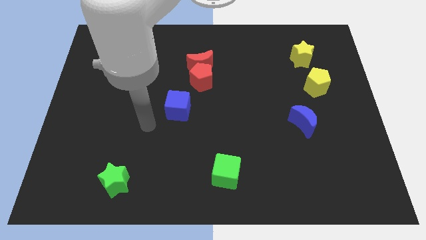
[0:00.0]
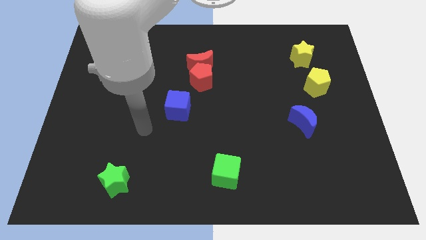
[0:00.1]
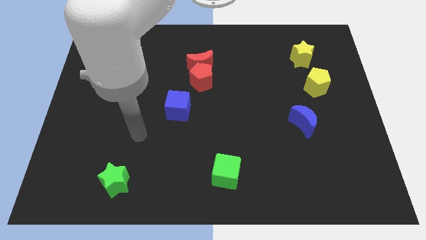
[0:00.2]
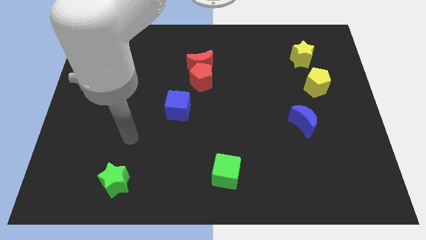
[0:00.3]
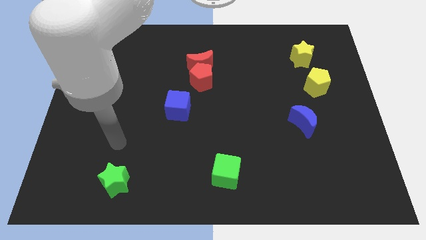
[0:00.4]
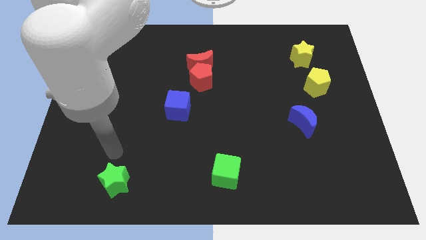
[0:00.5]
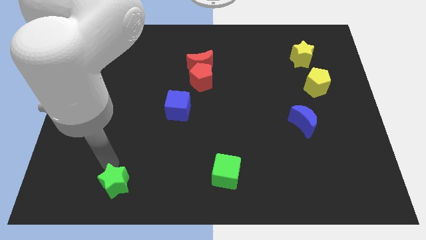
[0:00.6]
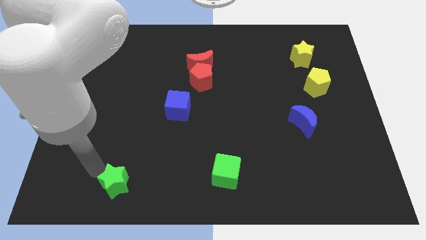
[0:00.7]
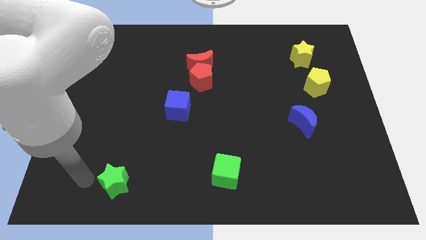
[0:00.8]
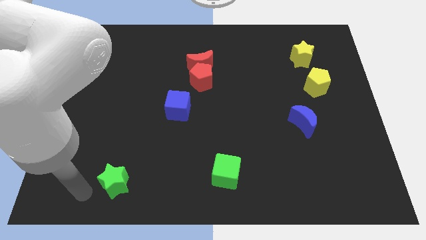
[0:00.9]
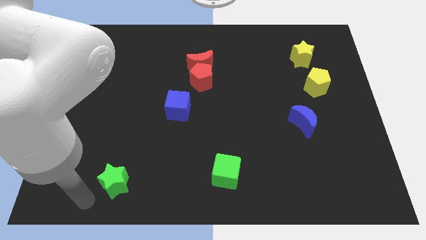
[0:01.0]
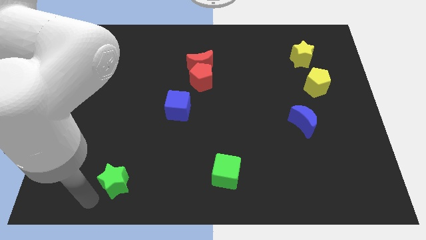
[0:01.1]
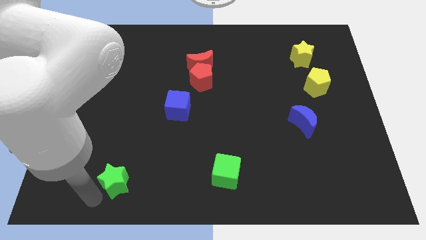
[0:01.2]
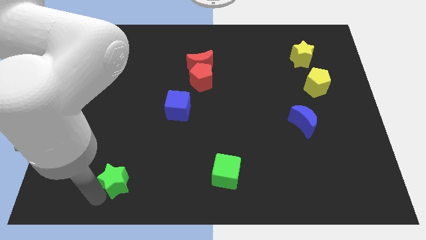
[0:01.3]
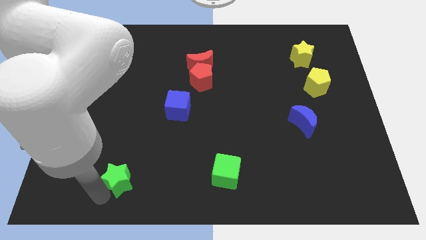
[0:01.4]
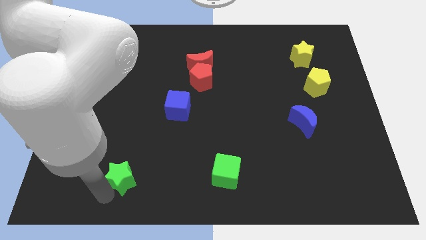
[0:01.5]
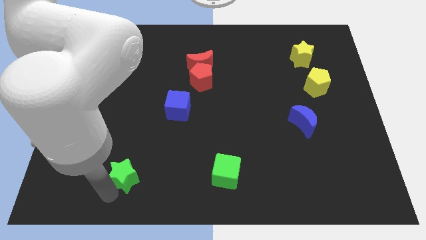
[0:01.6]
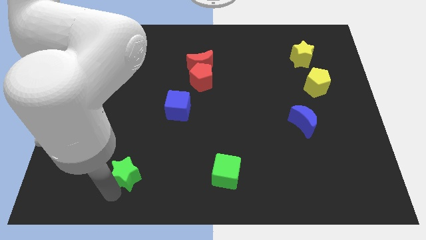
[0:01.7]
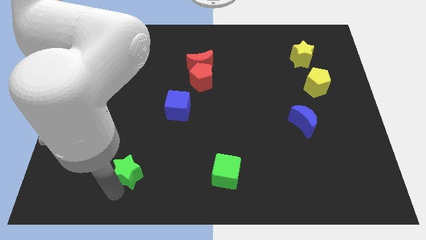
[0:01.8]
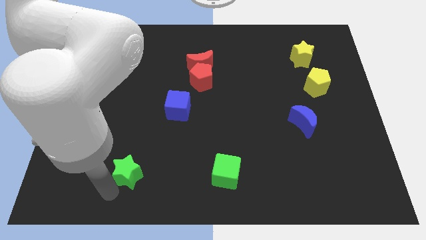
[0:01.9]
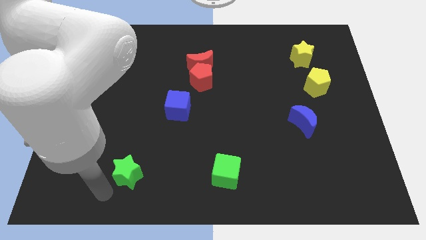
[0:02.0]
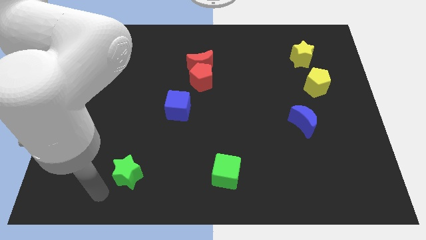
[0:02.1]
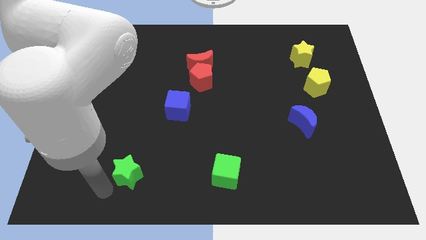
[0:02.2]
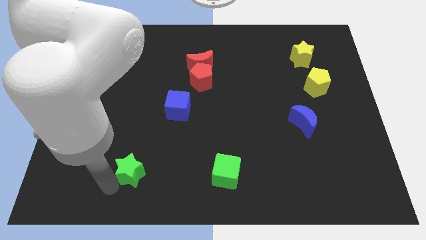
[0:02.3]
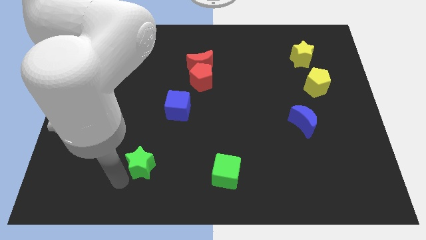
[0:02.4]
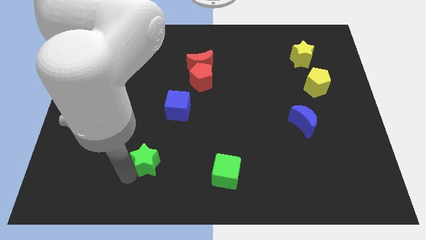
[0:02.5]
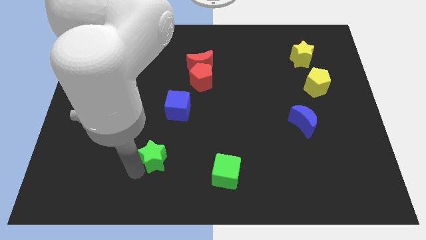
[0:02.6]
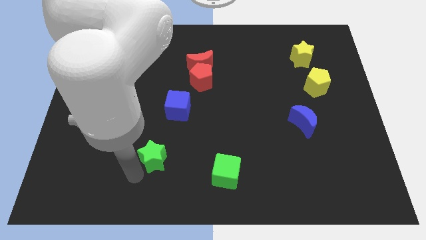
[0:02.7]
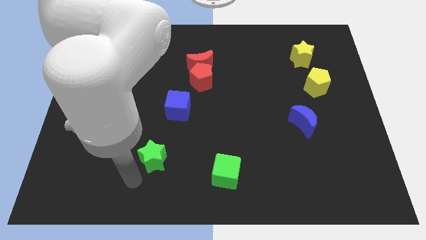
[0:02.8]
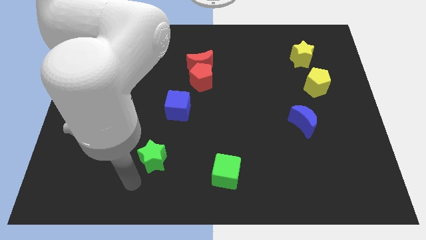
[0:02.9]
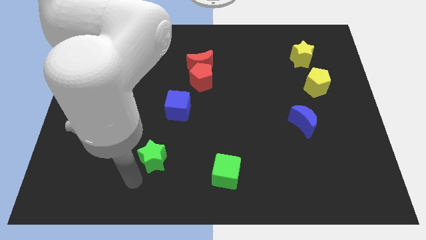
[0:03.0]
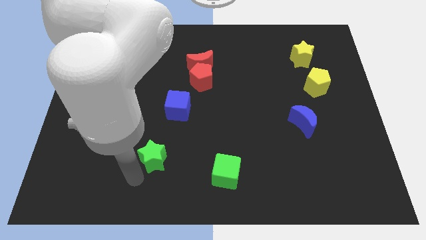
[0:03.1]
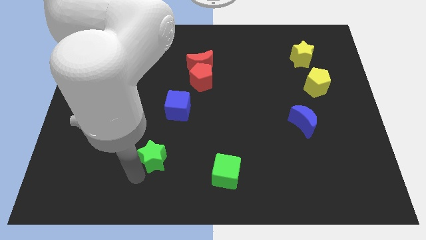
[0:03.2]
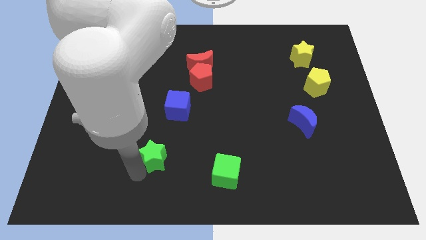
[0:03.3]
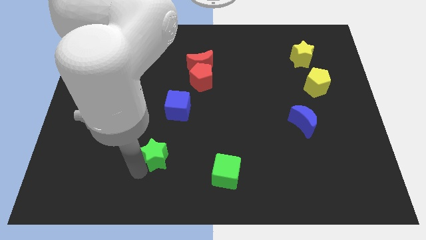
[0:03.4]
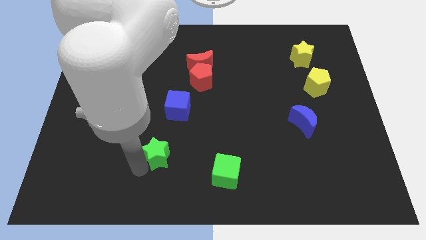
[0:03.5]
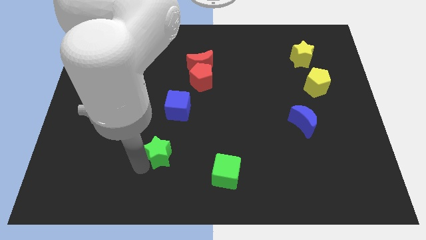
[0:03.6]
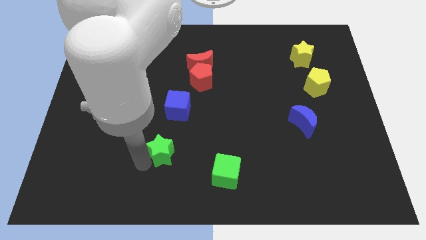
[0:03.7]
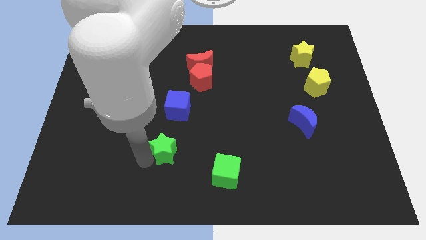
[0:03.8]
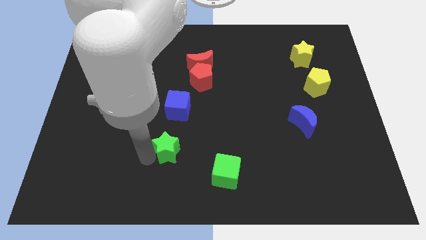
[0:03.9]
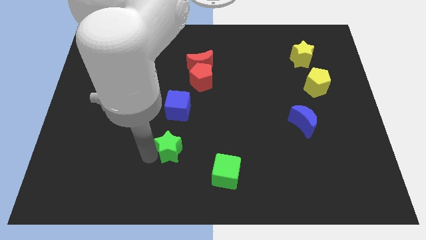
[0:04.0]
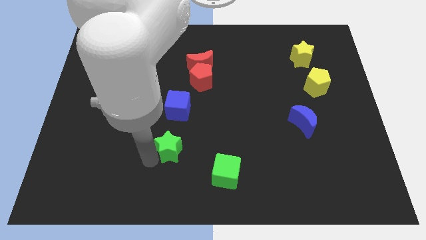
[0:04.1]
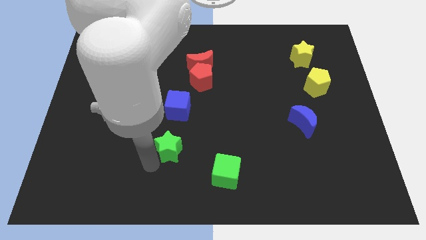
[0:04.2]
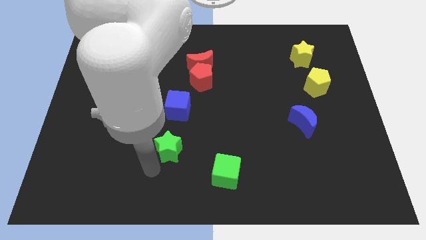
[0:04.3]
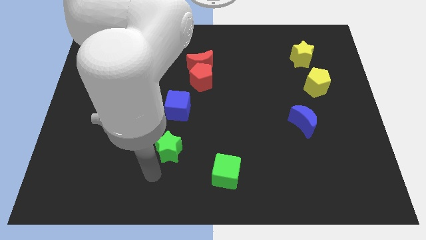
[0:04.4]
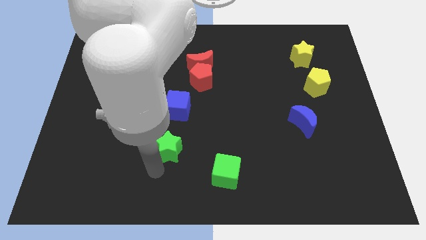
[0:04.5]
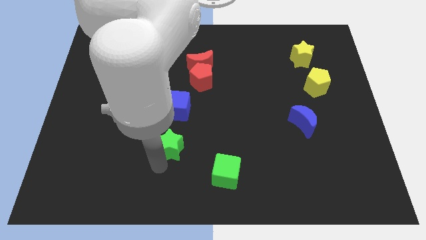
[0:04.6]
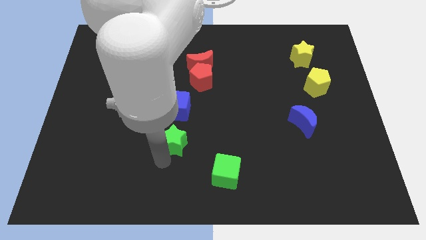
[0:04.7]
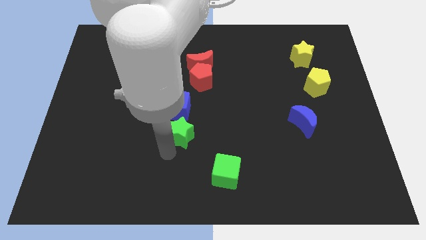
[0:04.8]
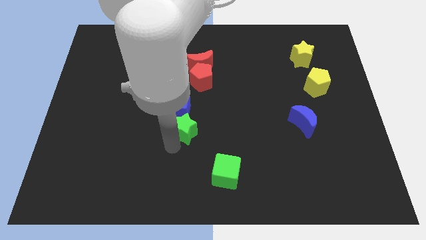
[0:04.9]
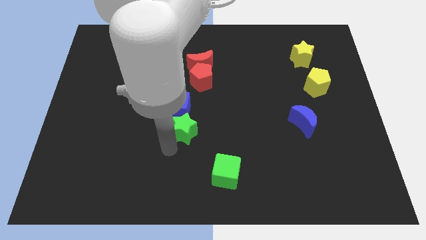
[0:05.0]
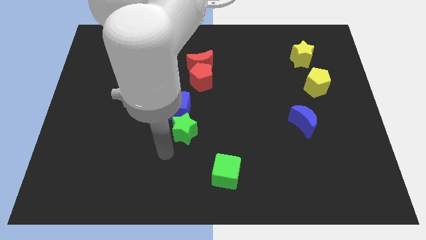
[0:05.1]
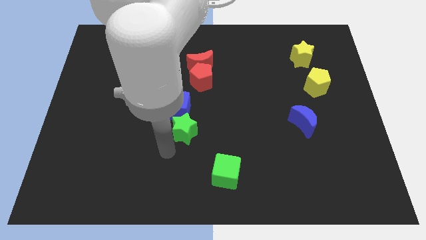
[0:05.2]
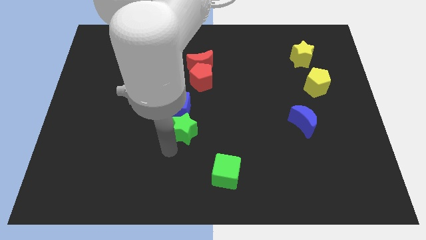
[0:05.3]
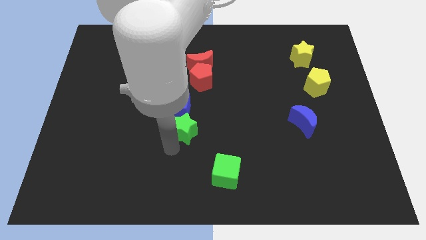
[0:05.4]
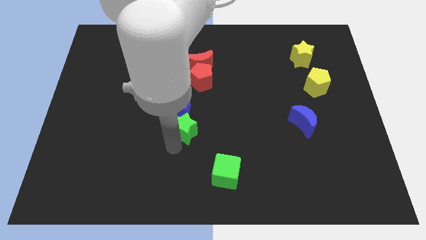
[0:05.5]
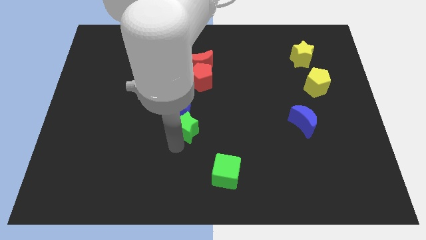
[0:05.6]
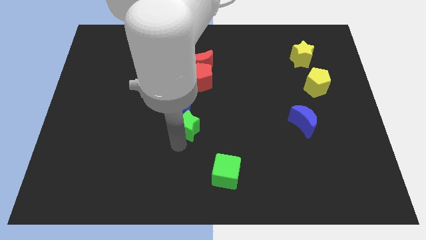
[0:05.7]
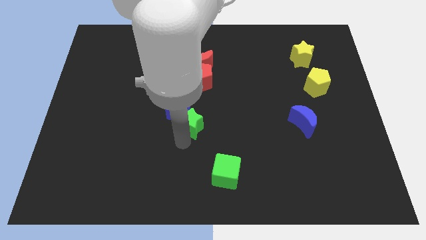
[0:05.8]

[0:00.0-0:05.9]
slide the green star up and then to the right

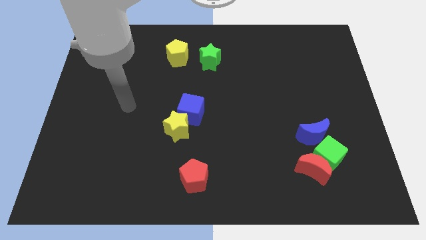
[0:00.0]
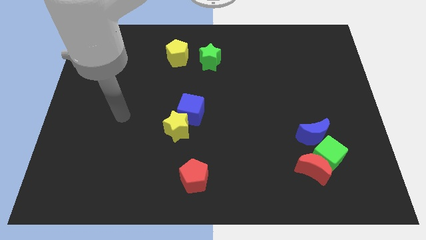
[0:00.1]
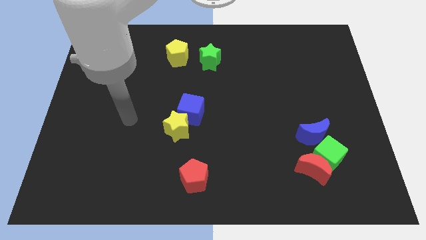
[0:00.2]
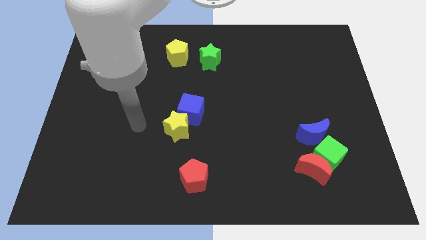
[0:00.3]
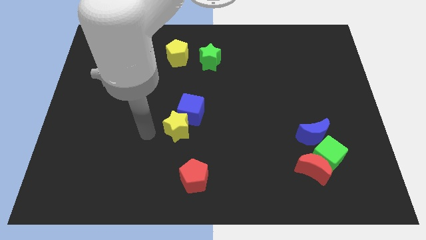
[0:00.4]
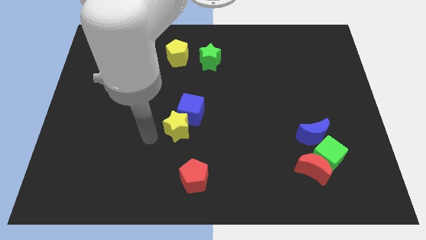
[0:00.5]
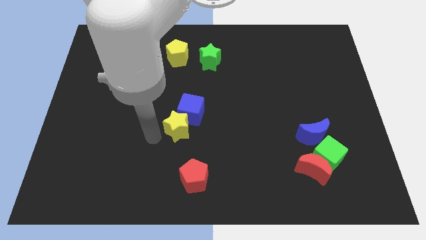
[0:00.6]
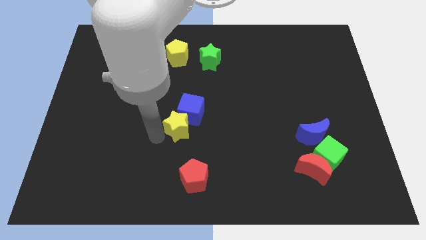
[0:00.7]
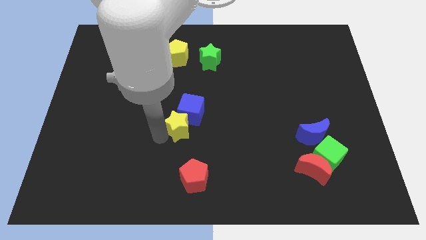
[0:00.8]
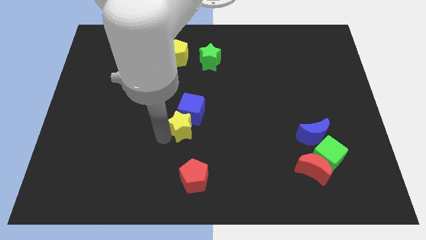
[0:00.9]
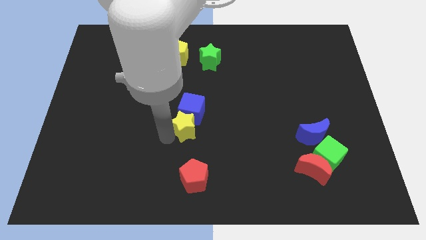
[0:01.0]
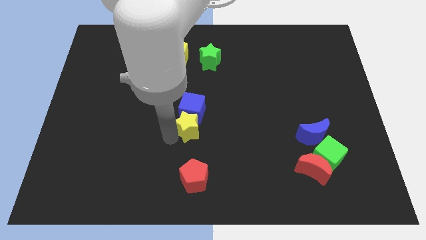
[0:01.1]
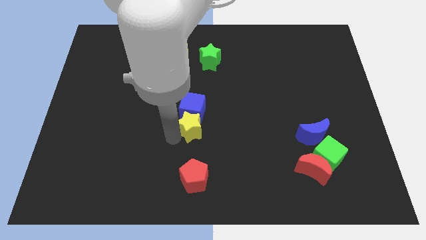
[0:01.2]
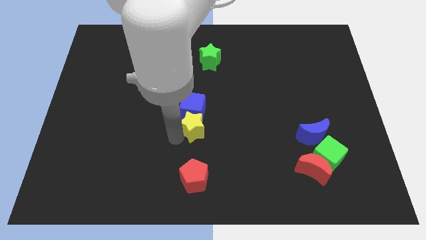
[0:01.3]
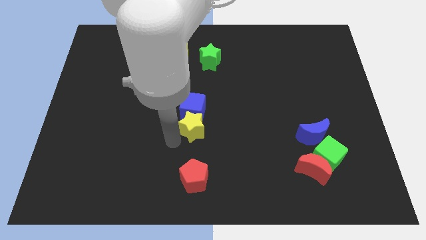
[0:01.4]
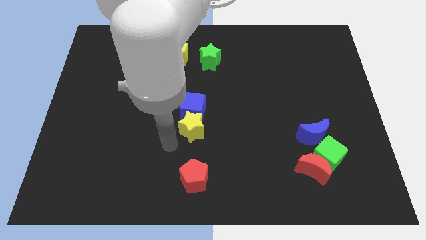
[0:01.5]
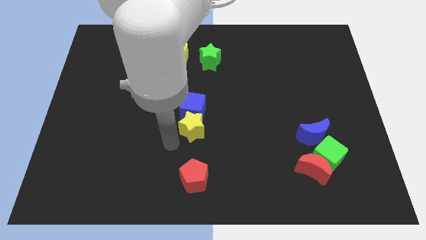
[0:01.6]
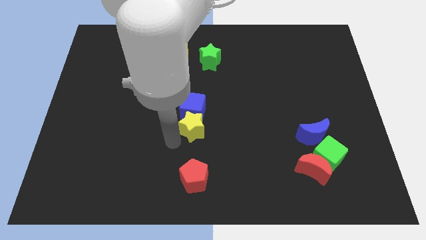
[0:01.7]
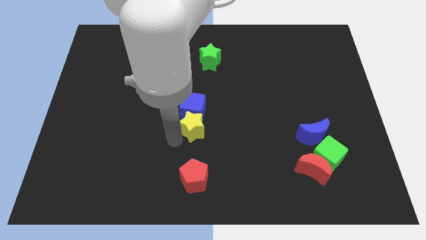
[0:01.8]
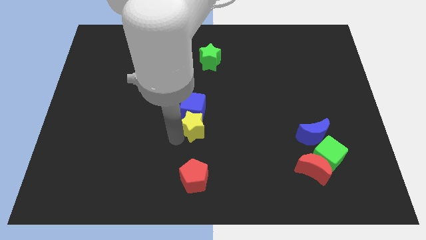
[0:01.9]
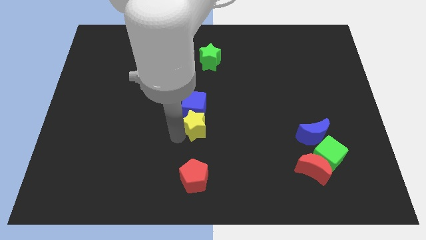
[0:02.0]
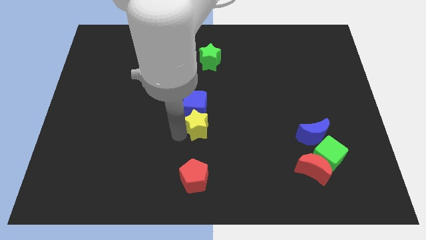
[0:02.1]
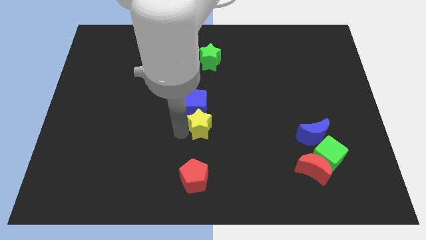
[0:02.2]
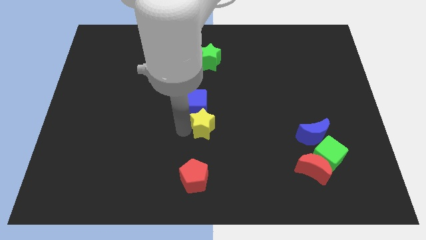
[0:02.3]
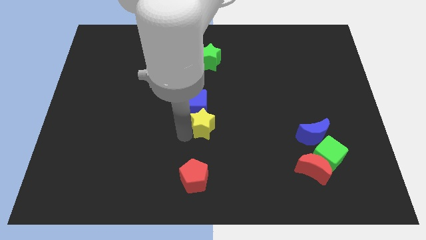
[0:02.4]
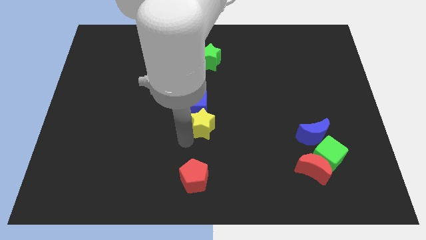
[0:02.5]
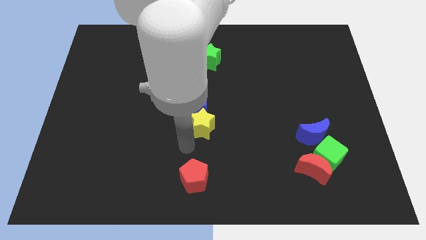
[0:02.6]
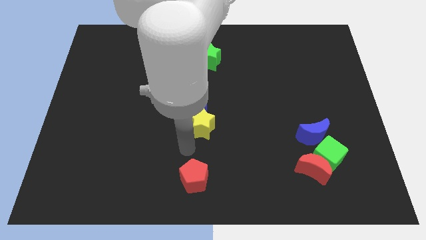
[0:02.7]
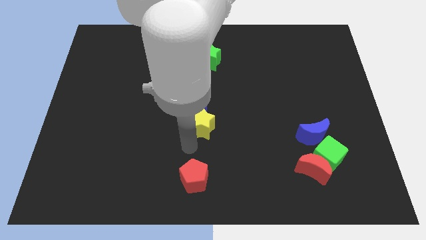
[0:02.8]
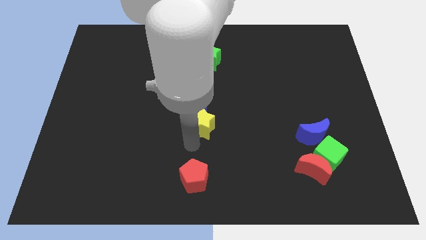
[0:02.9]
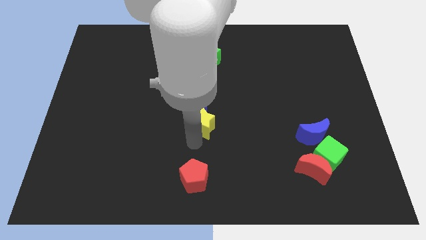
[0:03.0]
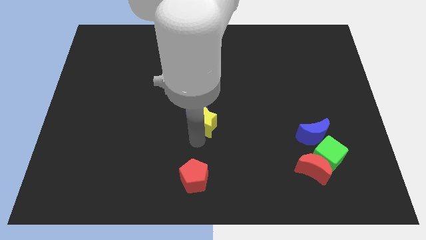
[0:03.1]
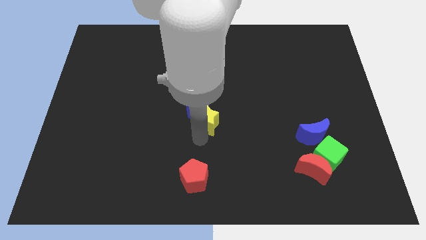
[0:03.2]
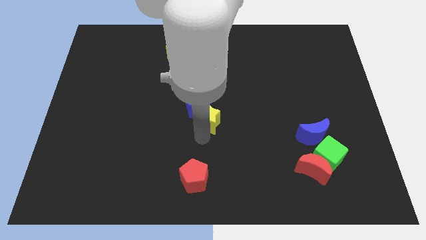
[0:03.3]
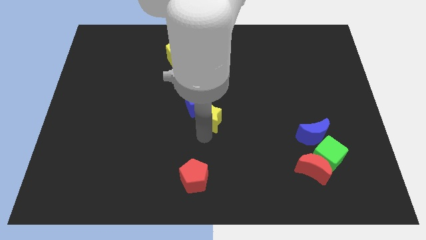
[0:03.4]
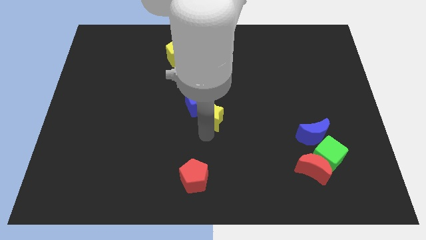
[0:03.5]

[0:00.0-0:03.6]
slightly move the yellow star upwards and then to the right
